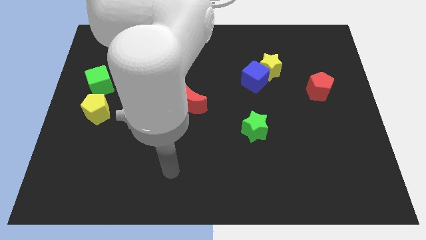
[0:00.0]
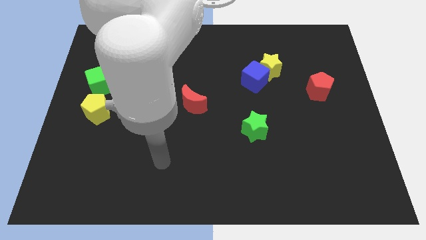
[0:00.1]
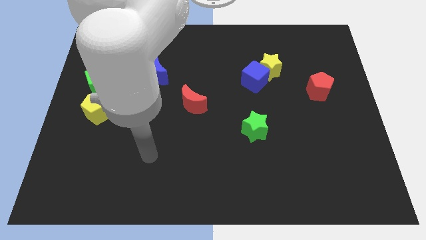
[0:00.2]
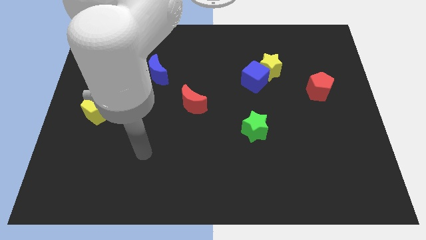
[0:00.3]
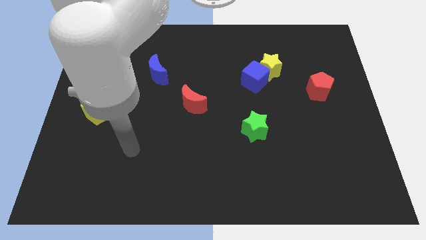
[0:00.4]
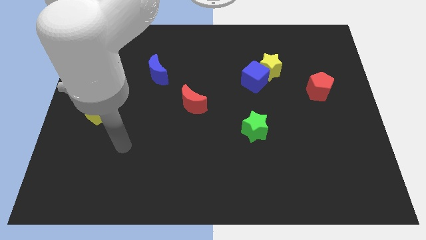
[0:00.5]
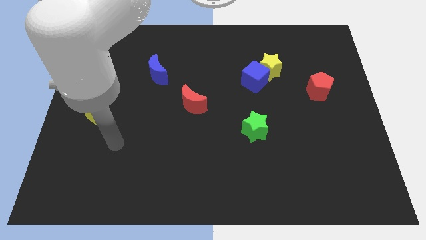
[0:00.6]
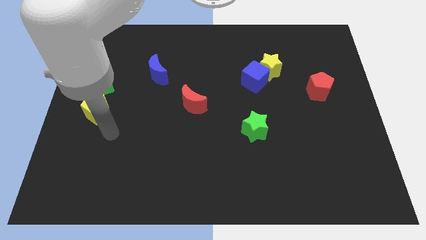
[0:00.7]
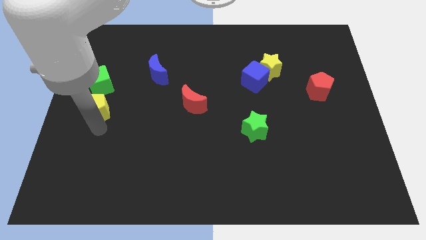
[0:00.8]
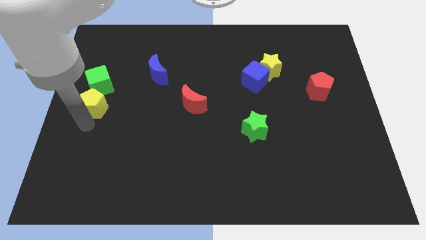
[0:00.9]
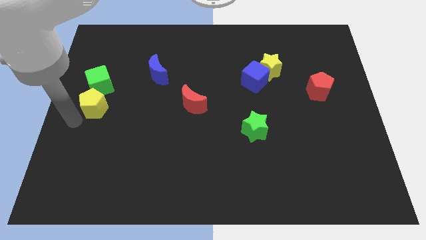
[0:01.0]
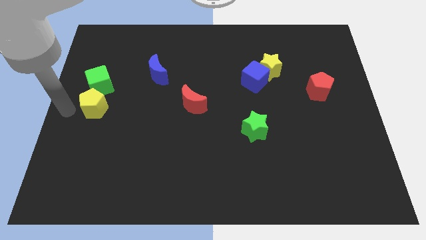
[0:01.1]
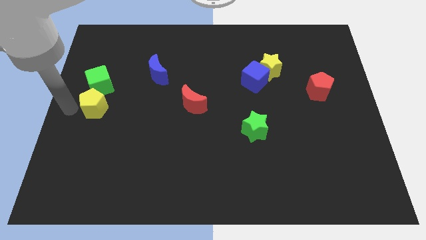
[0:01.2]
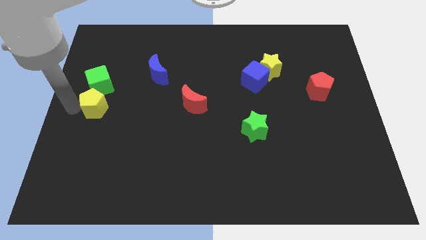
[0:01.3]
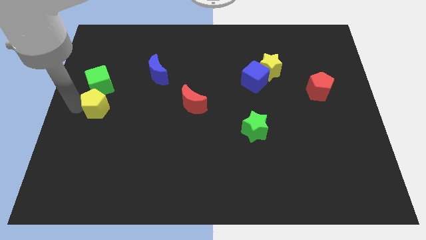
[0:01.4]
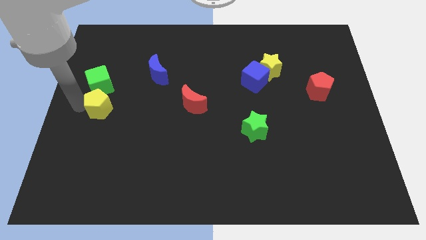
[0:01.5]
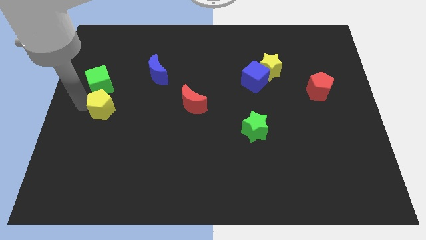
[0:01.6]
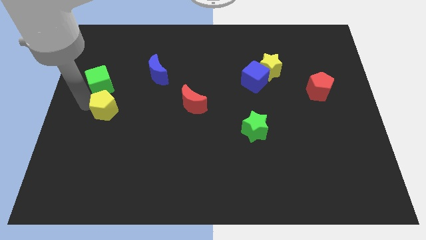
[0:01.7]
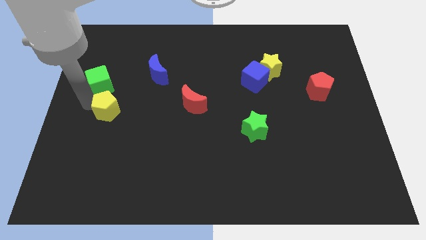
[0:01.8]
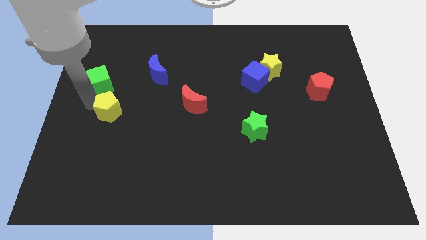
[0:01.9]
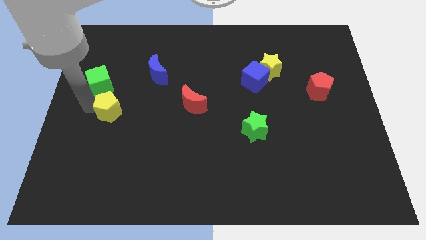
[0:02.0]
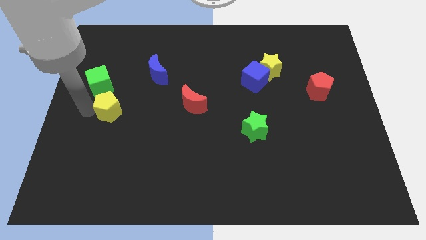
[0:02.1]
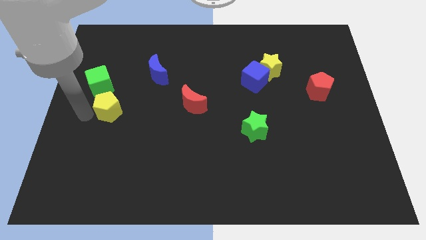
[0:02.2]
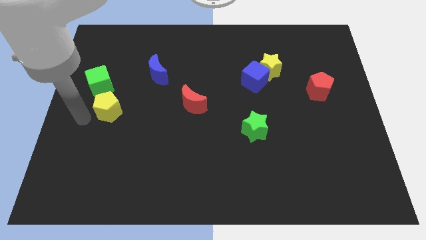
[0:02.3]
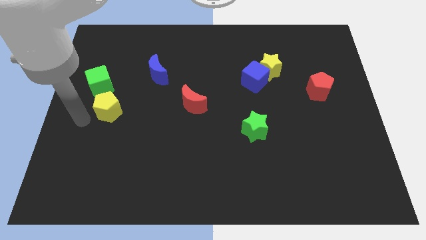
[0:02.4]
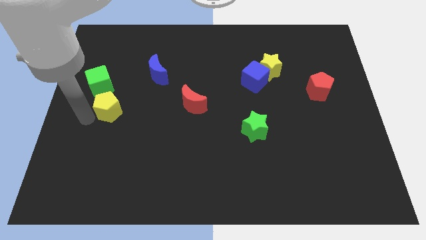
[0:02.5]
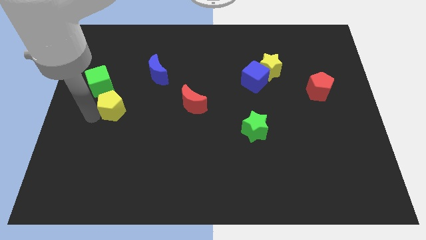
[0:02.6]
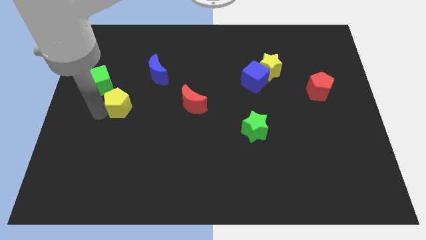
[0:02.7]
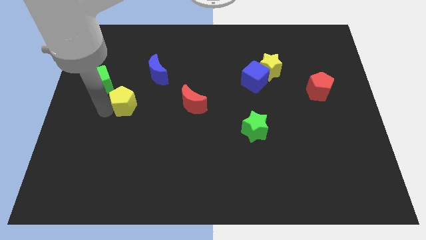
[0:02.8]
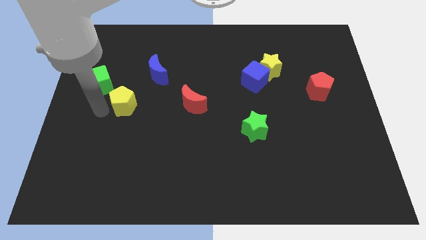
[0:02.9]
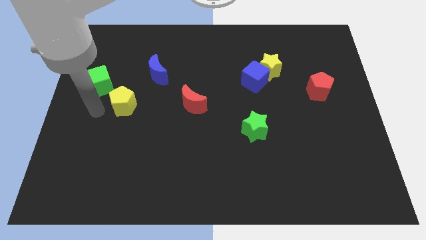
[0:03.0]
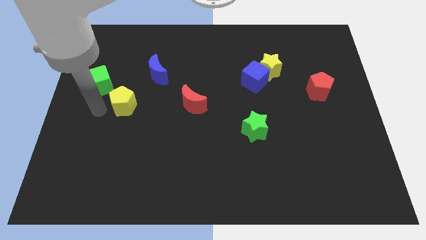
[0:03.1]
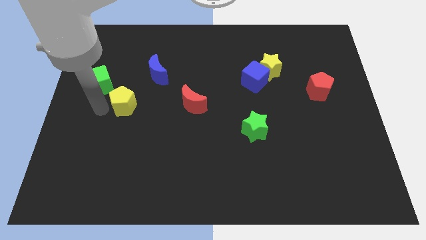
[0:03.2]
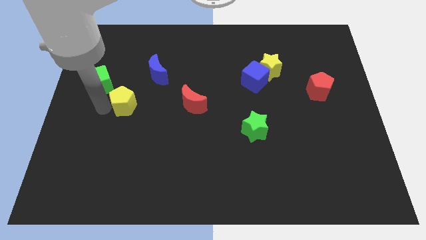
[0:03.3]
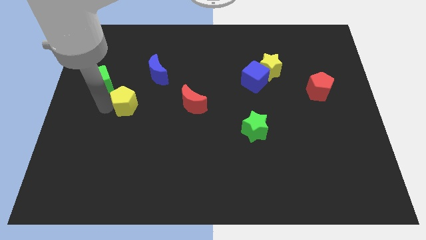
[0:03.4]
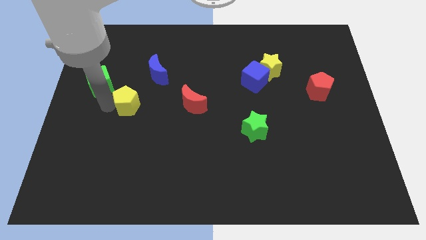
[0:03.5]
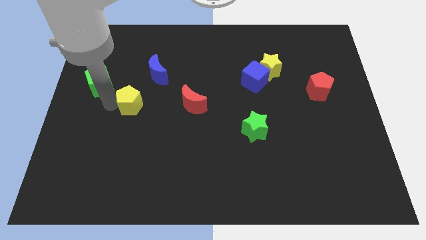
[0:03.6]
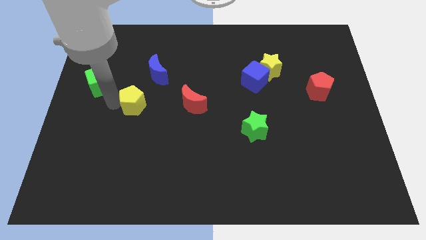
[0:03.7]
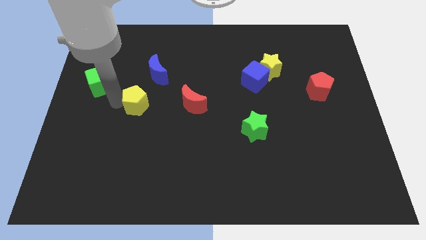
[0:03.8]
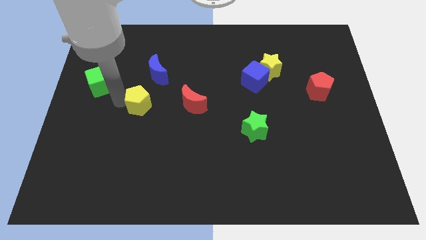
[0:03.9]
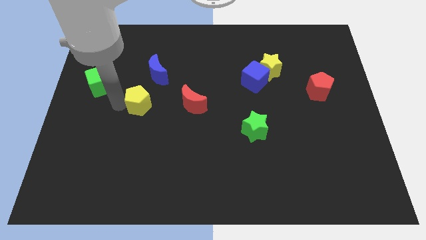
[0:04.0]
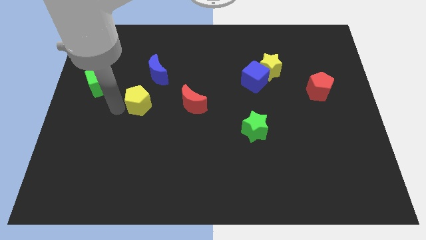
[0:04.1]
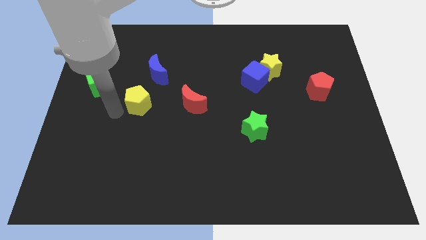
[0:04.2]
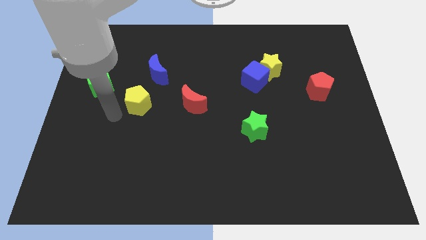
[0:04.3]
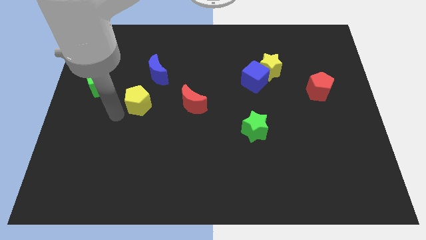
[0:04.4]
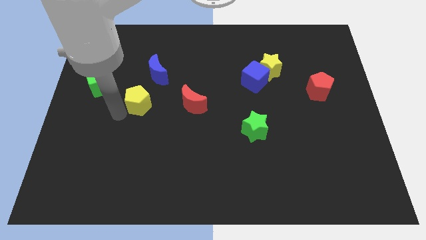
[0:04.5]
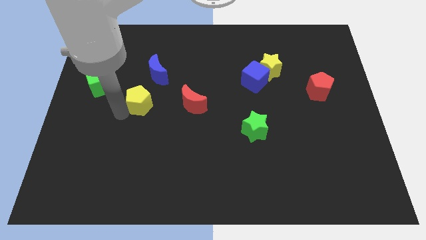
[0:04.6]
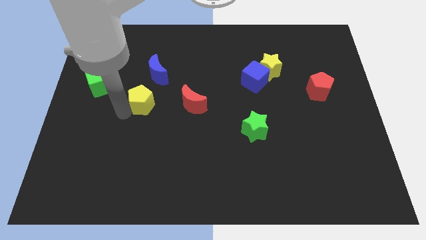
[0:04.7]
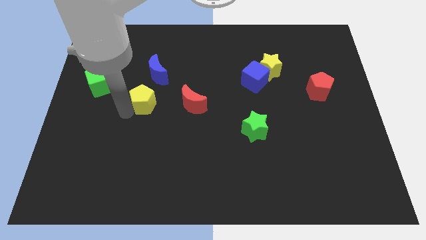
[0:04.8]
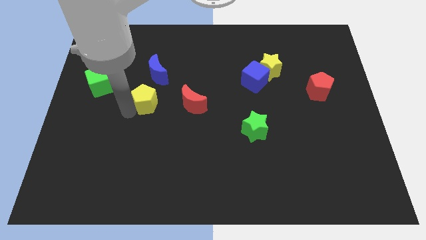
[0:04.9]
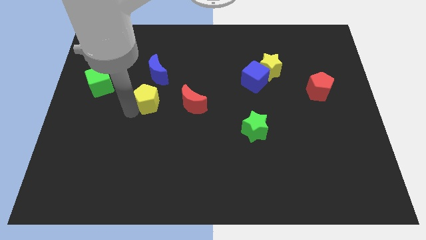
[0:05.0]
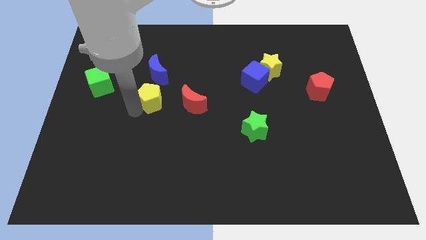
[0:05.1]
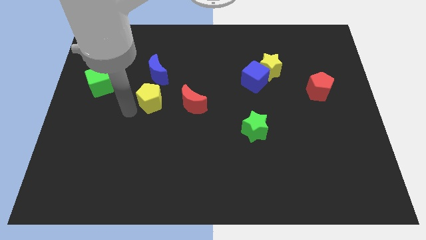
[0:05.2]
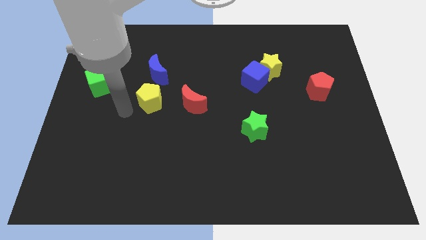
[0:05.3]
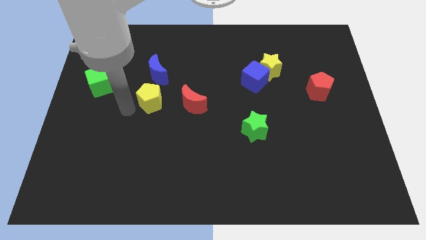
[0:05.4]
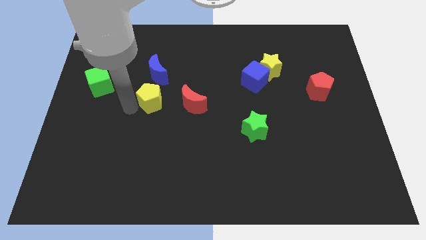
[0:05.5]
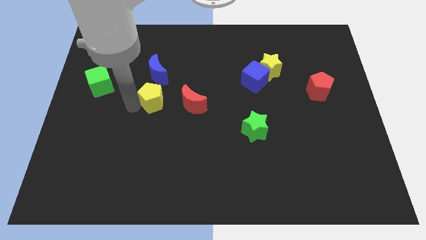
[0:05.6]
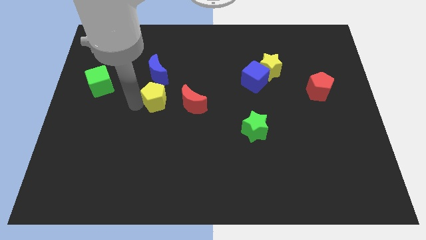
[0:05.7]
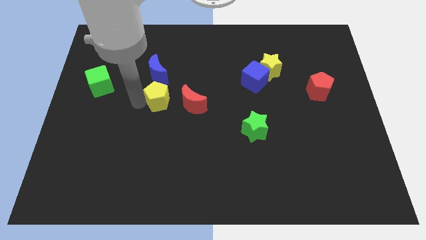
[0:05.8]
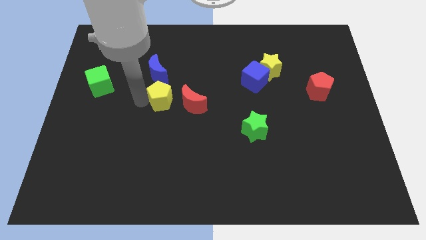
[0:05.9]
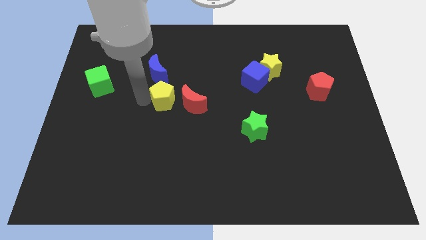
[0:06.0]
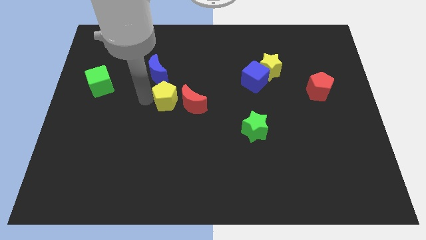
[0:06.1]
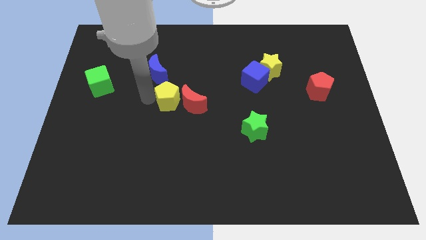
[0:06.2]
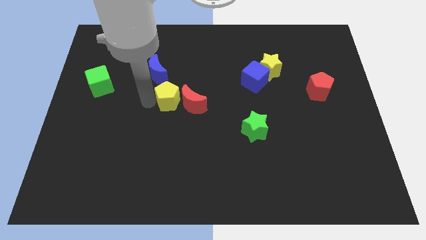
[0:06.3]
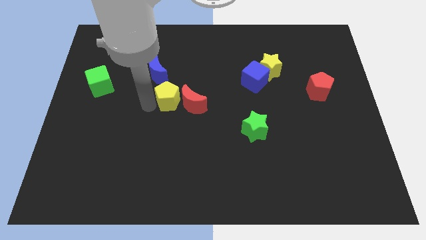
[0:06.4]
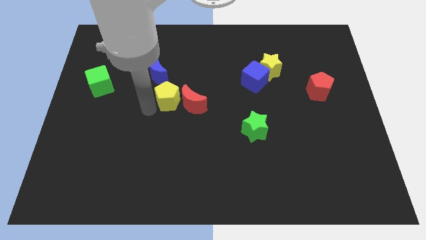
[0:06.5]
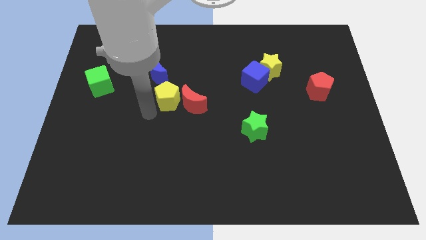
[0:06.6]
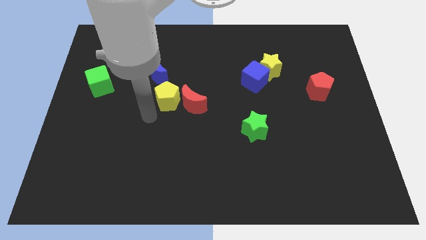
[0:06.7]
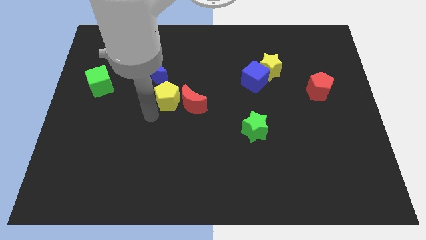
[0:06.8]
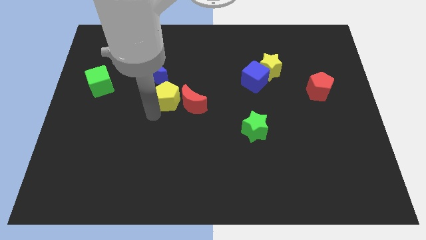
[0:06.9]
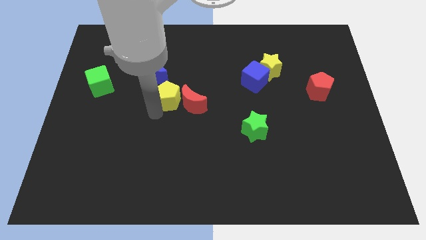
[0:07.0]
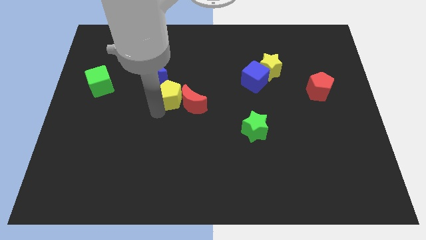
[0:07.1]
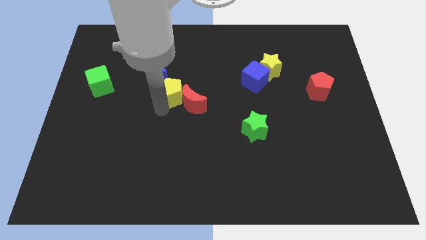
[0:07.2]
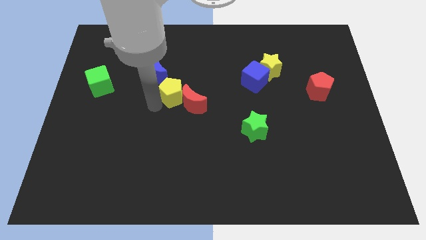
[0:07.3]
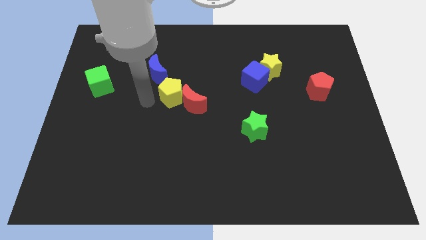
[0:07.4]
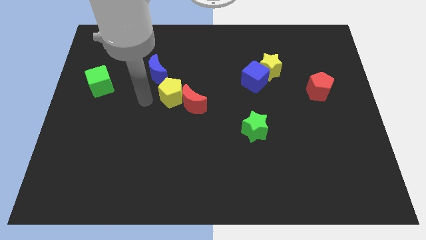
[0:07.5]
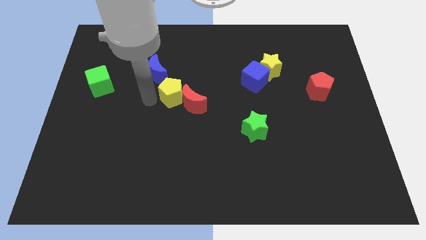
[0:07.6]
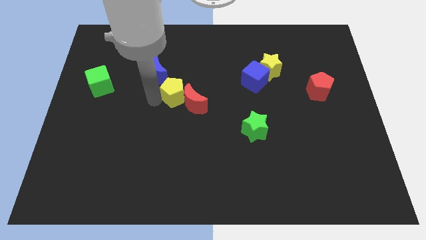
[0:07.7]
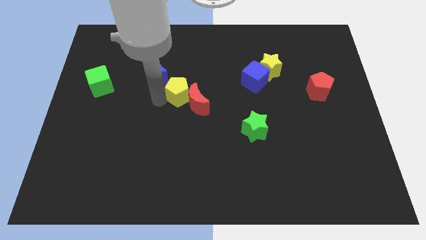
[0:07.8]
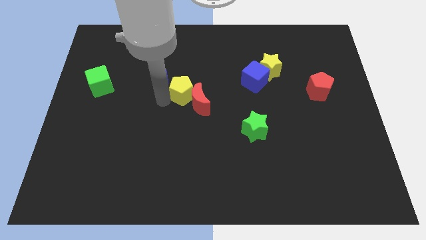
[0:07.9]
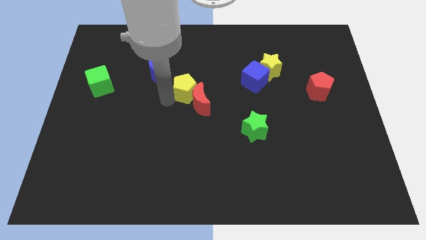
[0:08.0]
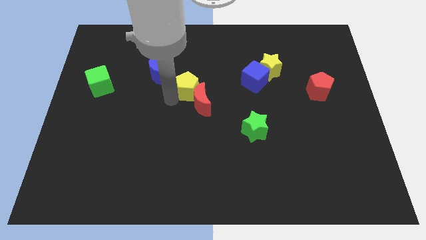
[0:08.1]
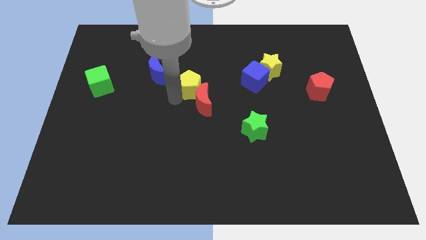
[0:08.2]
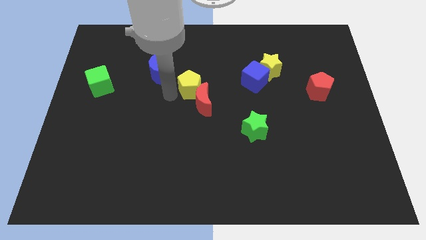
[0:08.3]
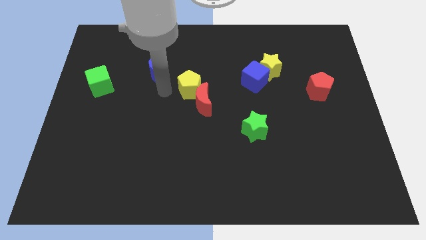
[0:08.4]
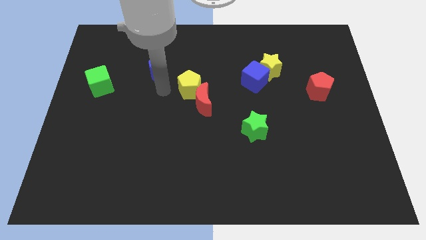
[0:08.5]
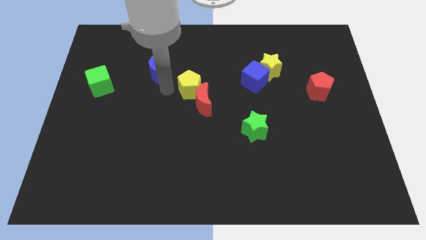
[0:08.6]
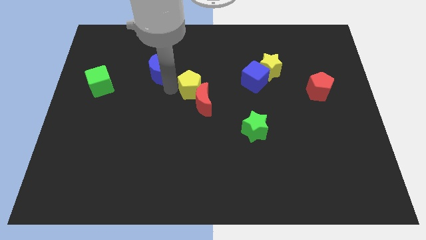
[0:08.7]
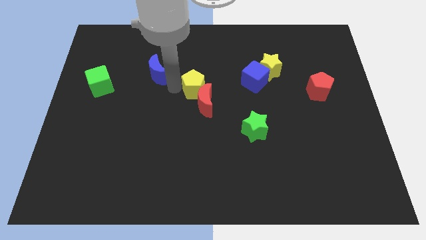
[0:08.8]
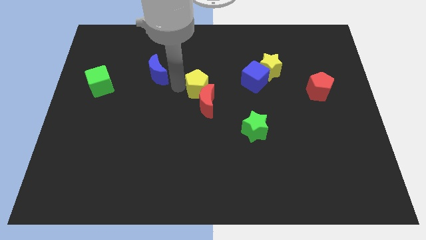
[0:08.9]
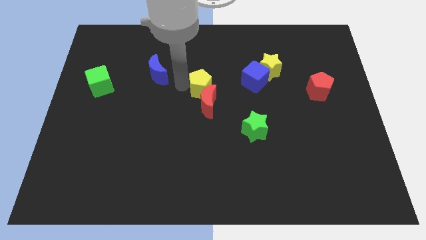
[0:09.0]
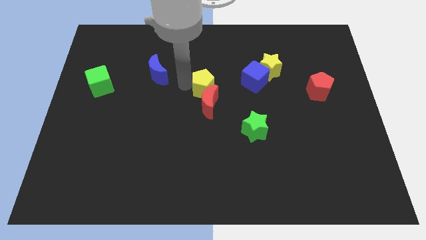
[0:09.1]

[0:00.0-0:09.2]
move the yellow pentagon diagonally up and to the right of the red moon
